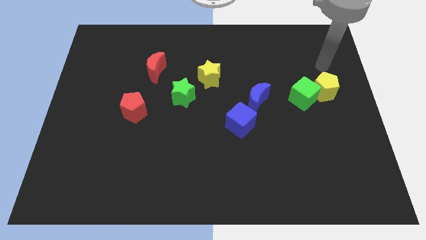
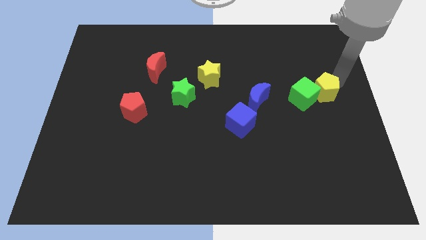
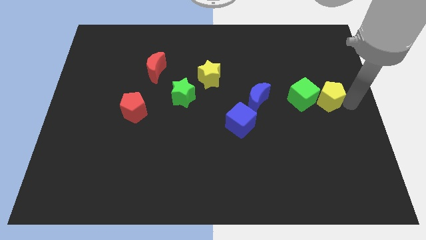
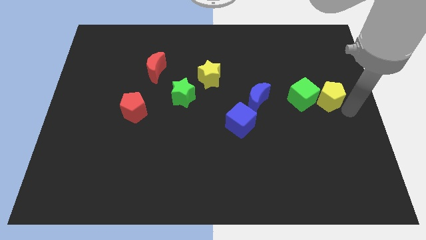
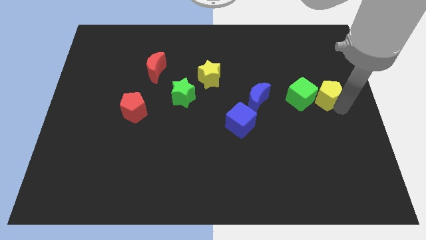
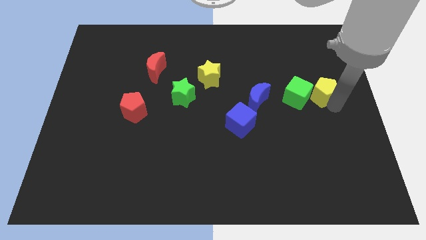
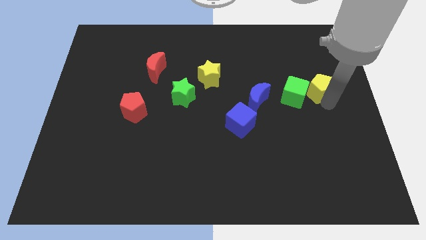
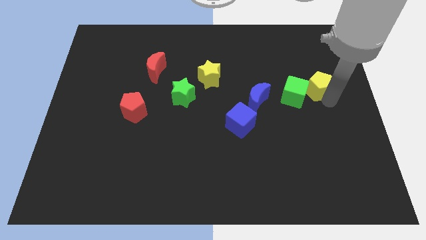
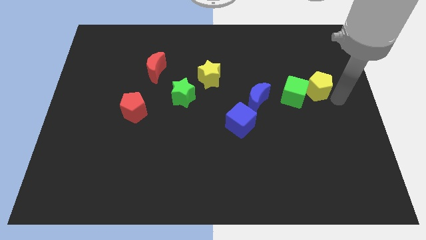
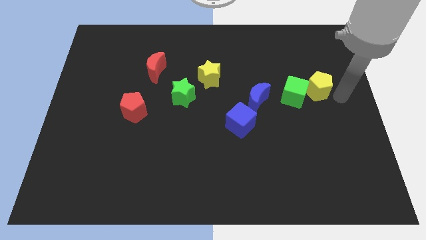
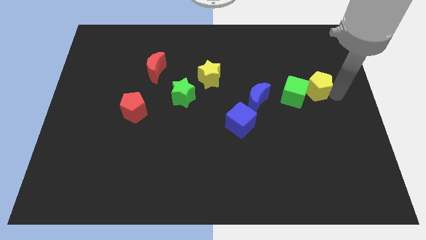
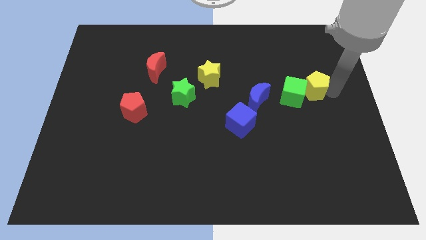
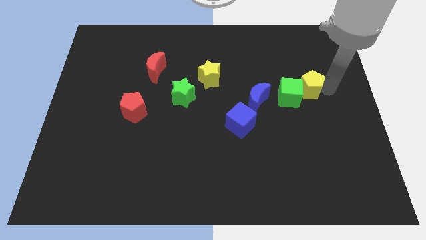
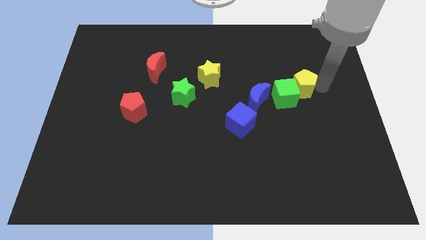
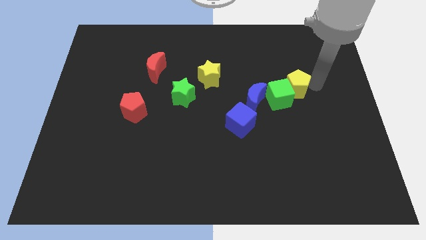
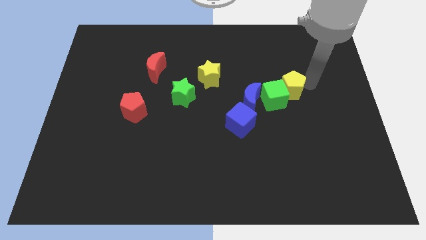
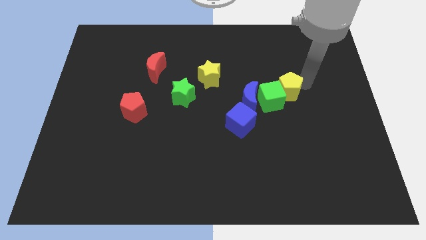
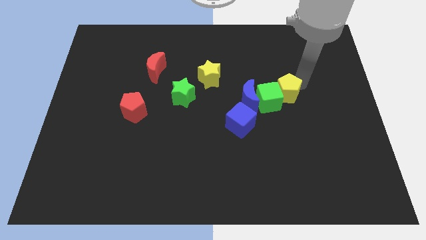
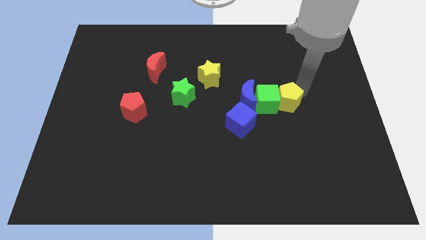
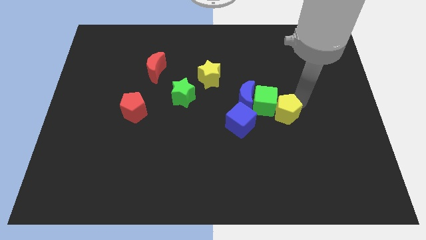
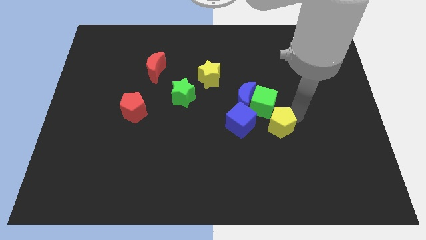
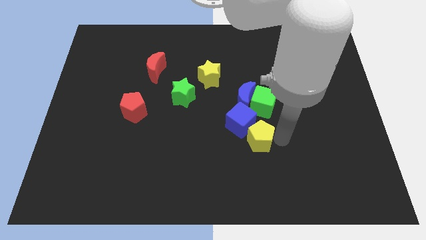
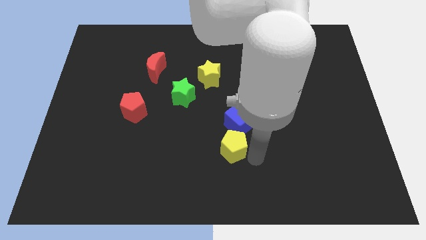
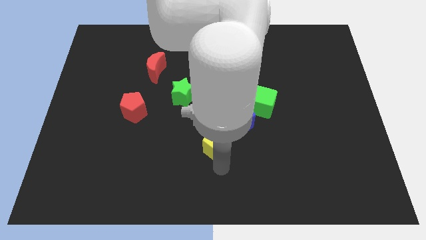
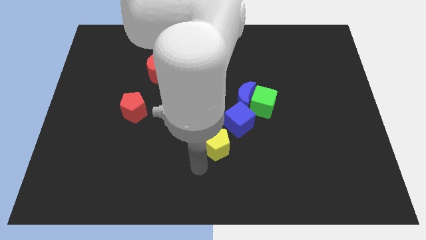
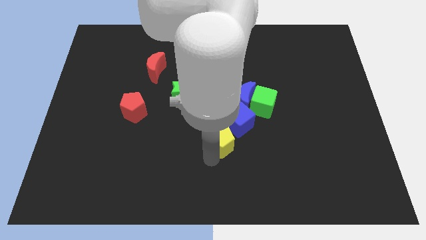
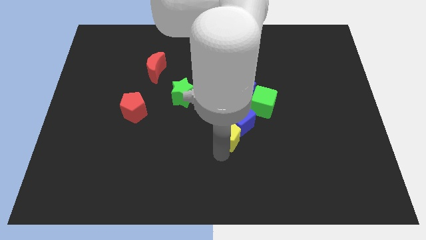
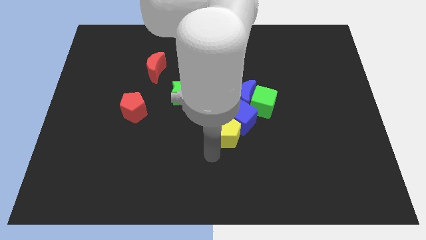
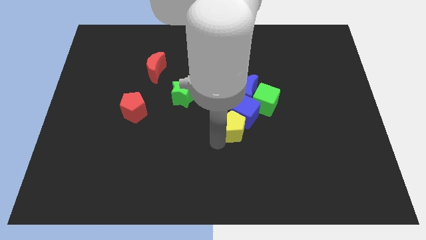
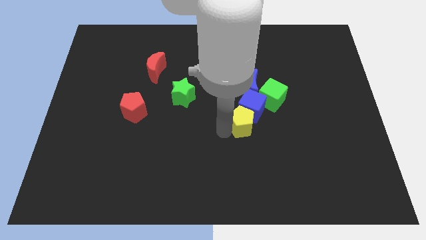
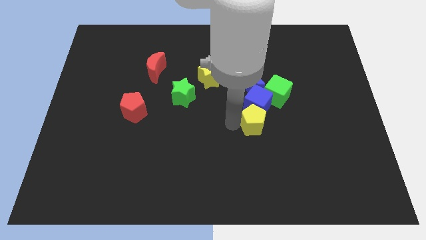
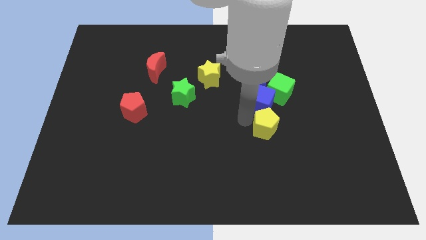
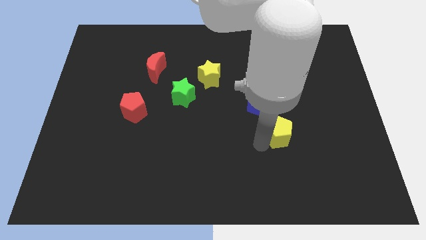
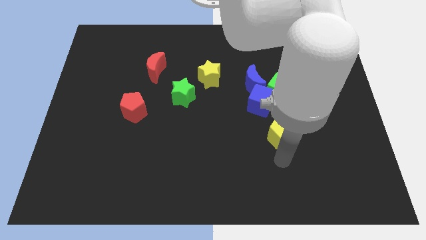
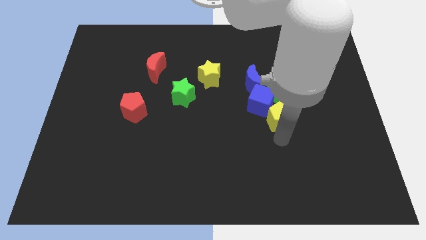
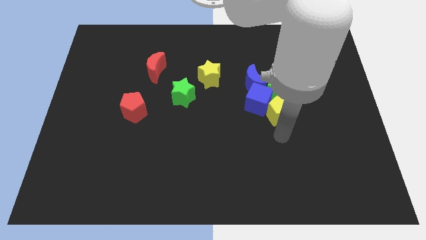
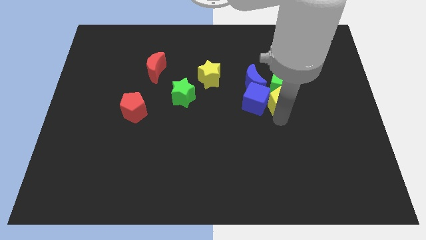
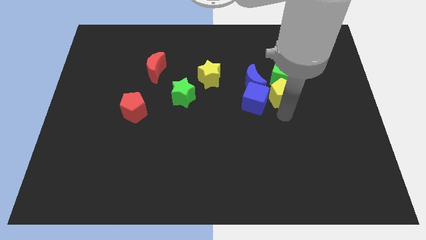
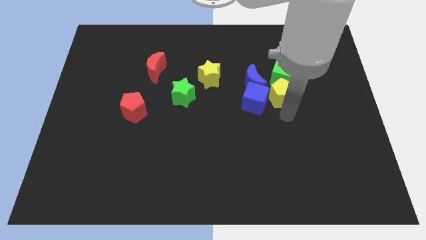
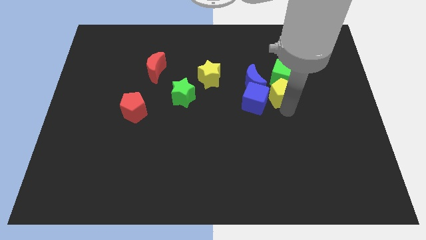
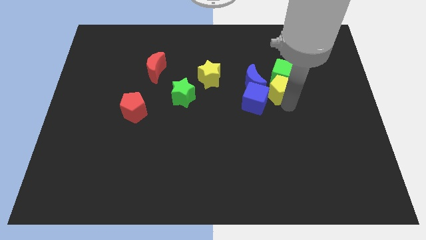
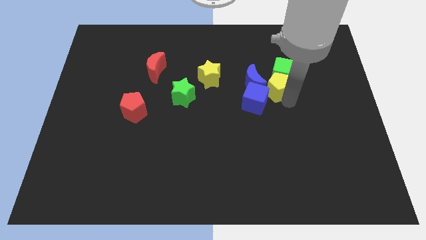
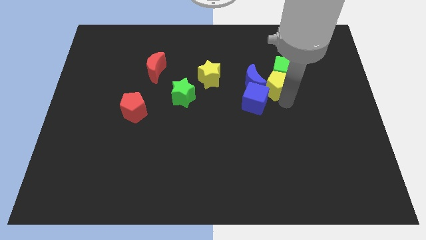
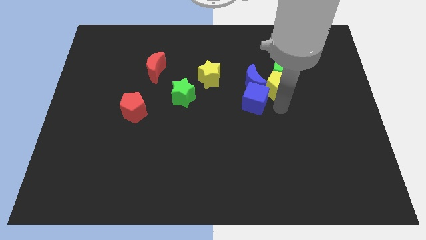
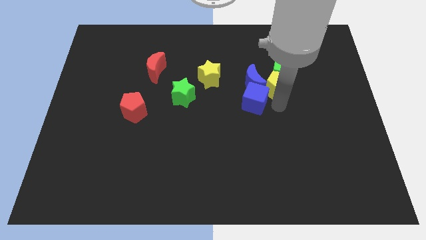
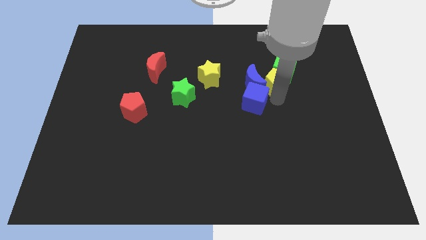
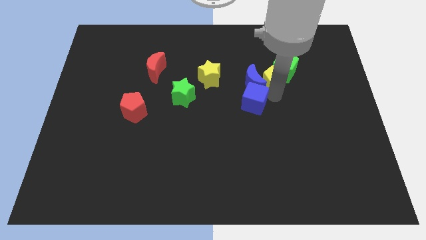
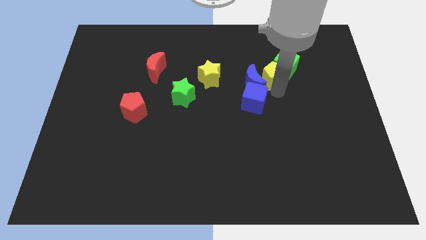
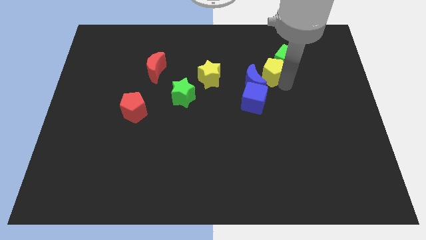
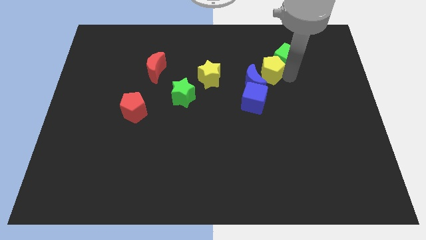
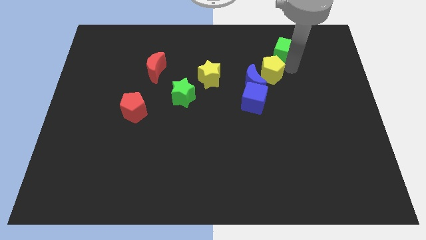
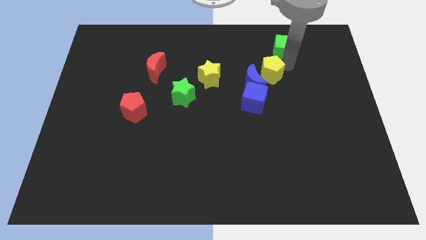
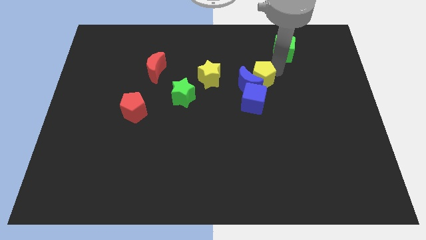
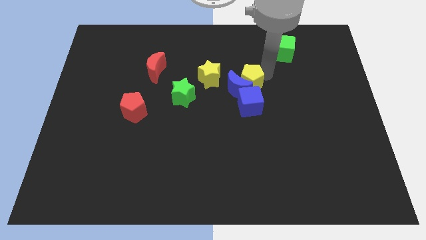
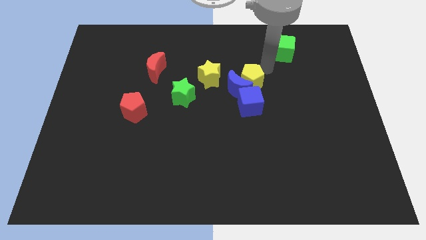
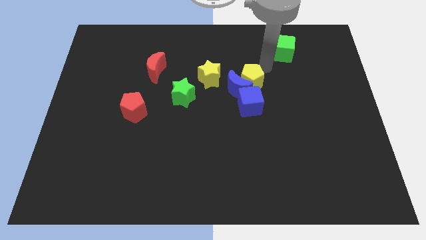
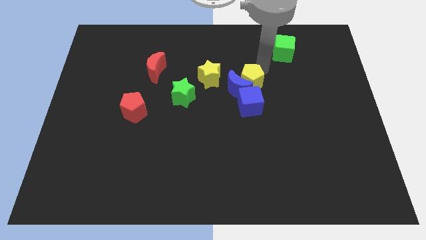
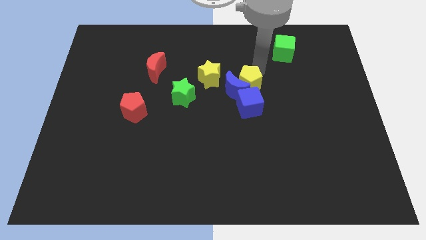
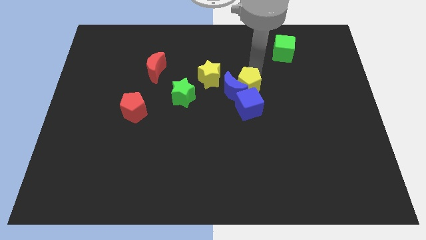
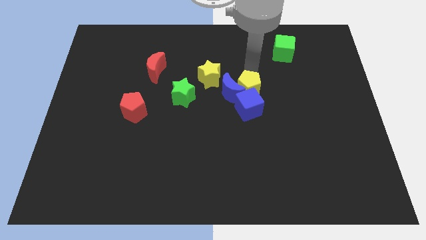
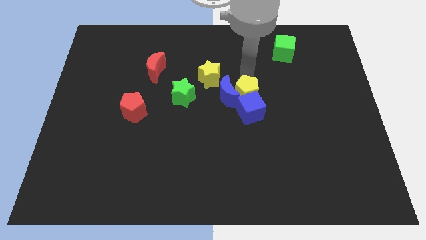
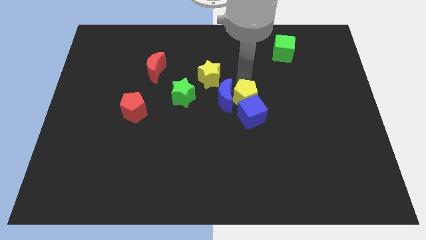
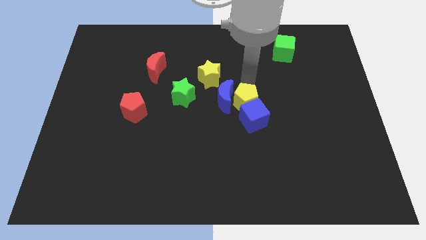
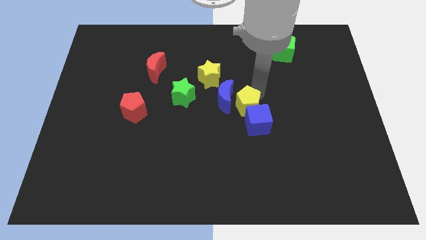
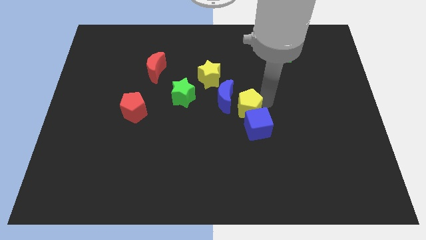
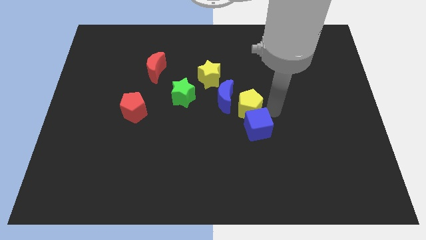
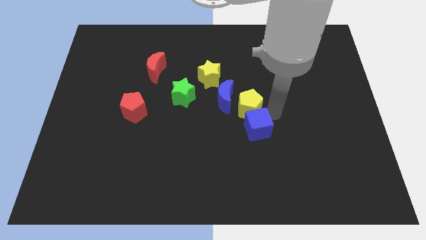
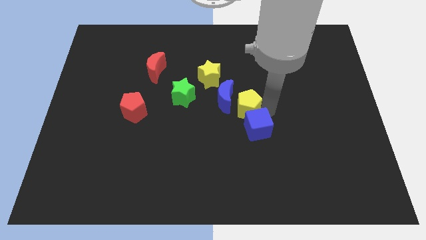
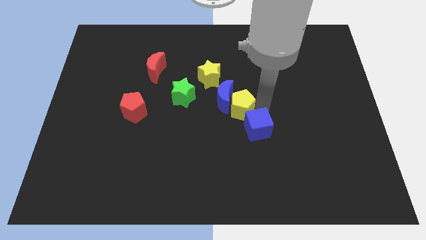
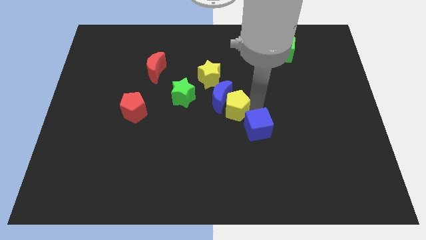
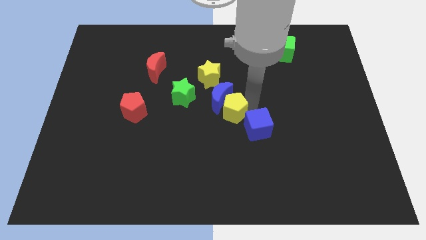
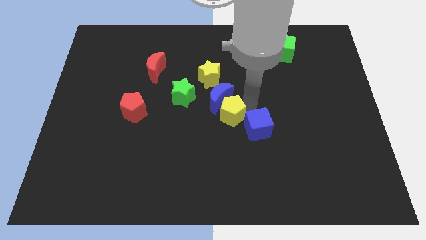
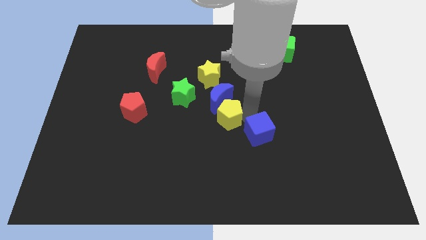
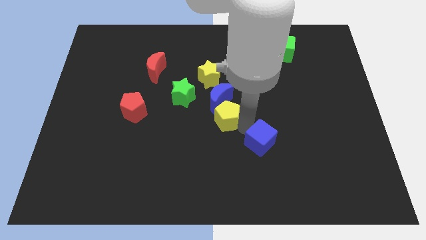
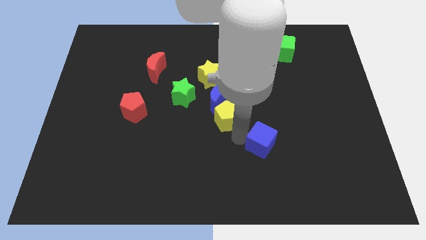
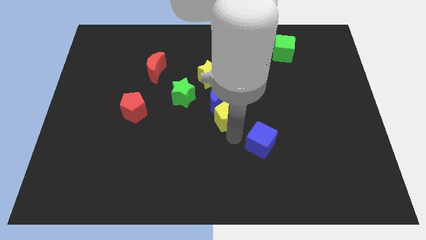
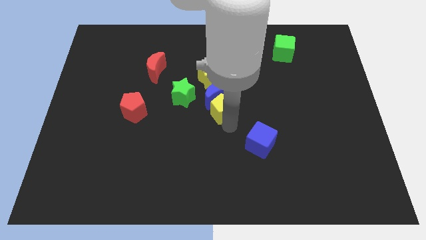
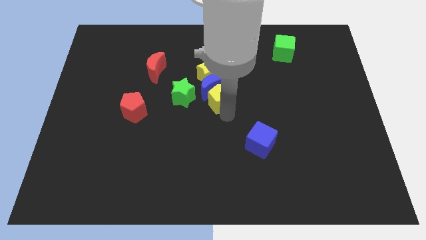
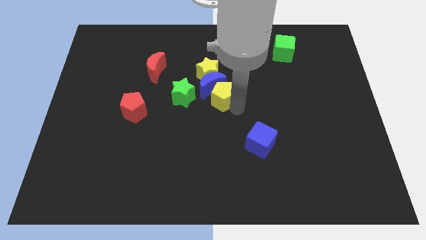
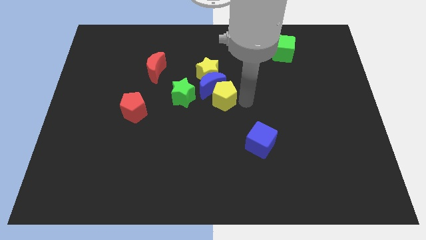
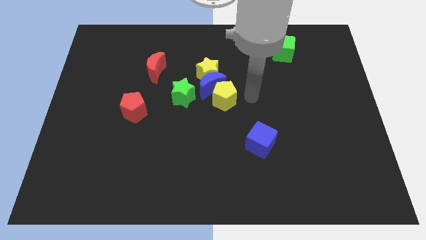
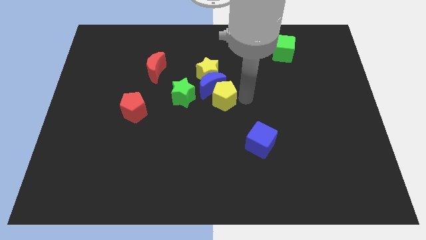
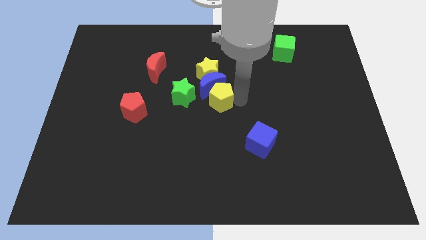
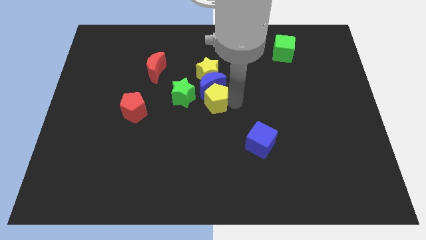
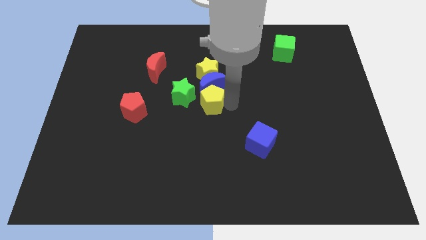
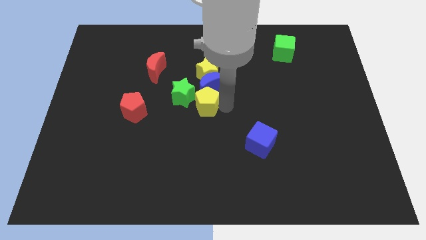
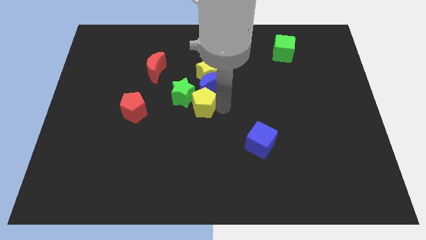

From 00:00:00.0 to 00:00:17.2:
put the yellow pentagon next to the green star
